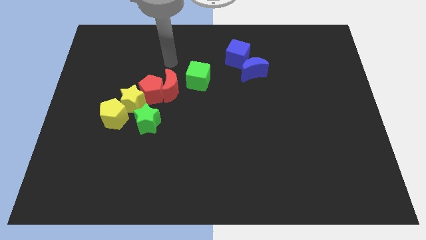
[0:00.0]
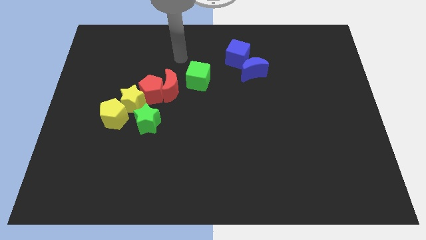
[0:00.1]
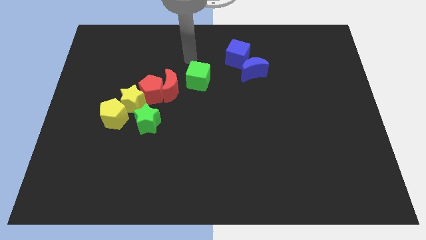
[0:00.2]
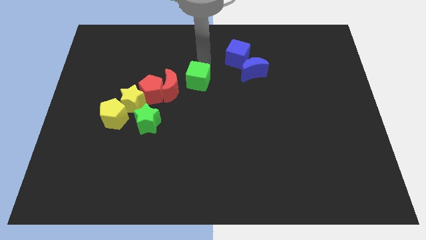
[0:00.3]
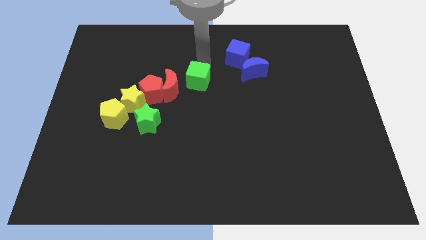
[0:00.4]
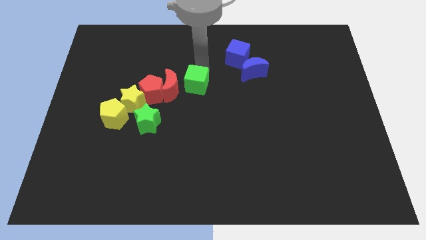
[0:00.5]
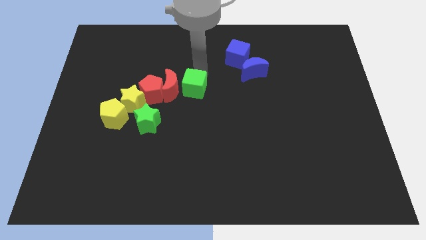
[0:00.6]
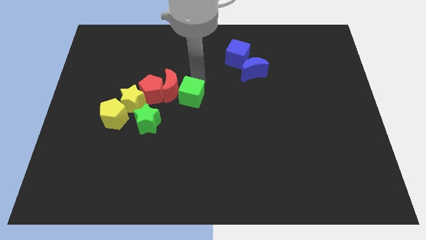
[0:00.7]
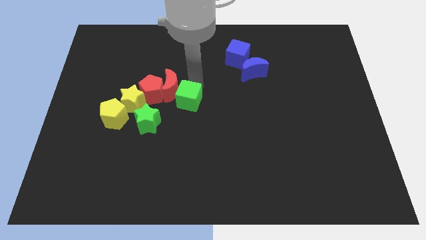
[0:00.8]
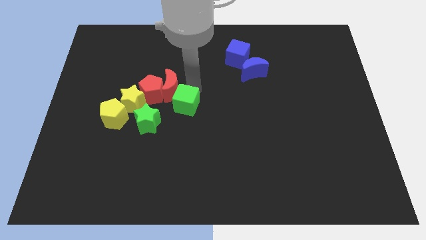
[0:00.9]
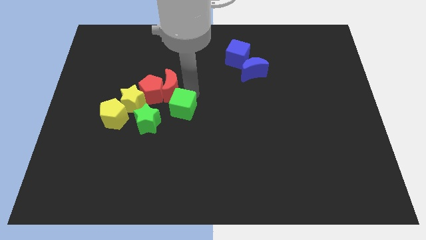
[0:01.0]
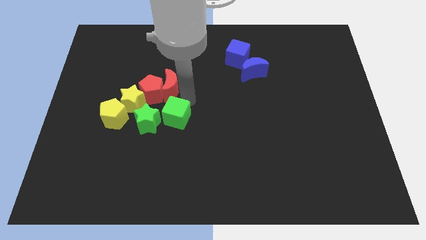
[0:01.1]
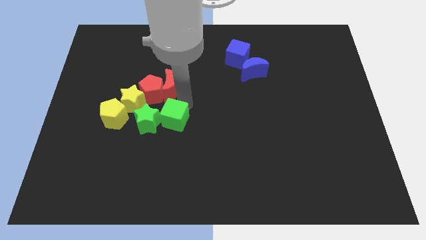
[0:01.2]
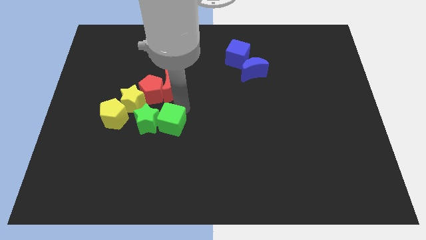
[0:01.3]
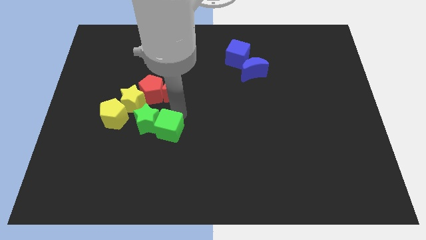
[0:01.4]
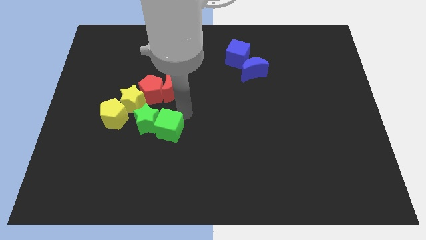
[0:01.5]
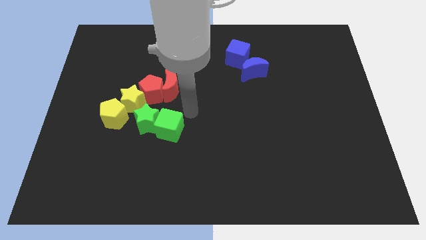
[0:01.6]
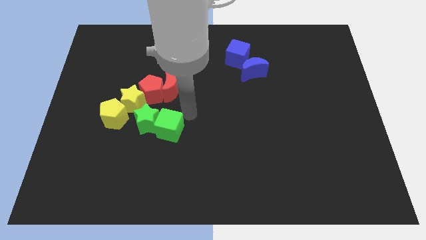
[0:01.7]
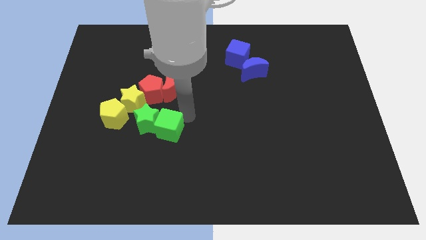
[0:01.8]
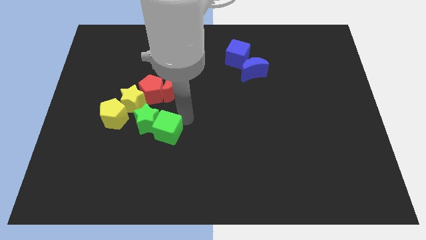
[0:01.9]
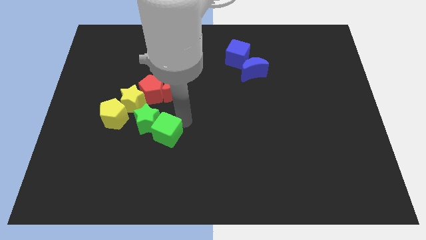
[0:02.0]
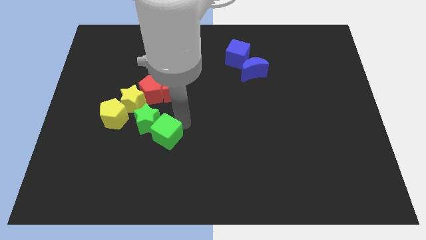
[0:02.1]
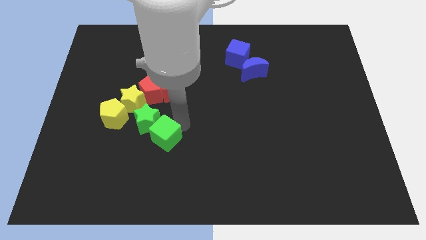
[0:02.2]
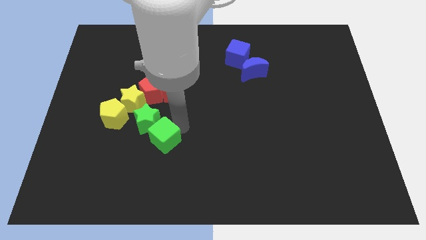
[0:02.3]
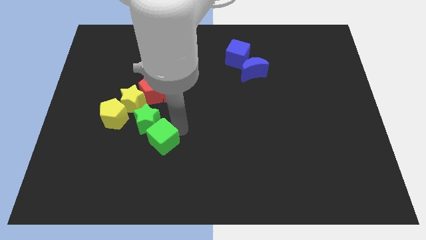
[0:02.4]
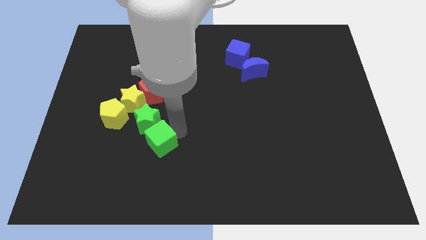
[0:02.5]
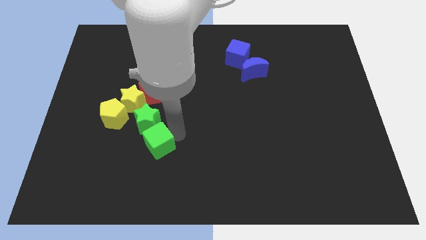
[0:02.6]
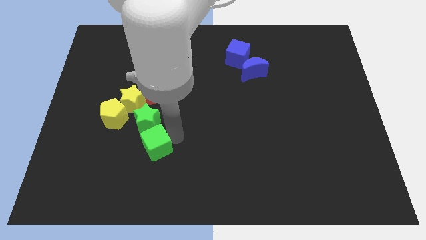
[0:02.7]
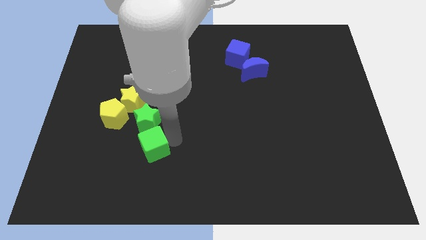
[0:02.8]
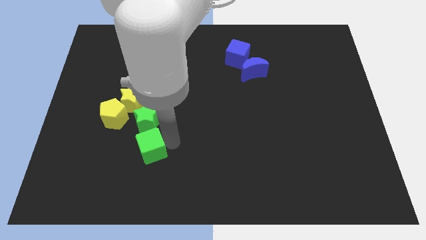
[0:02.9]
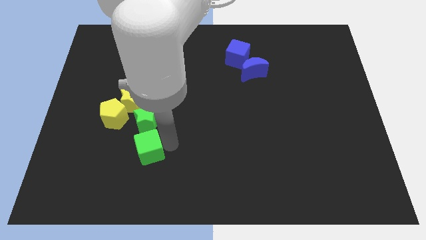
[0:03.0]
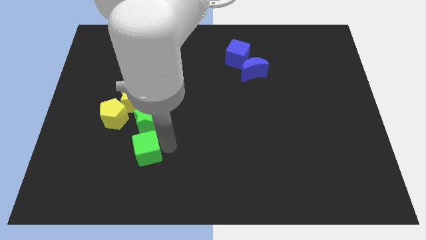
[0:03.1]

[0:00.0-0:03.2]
move the green cube down and left

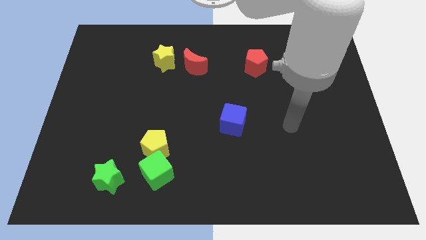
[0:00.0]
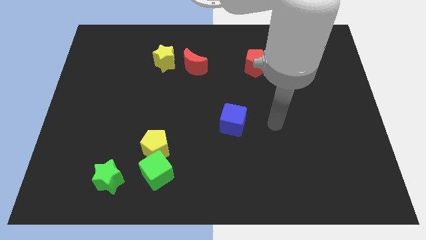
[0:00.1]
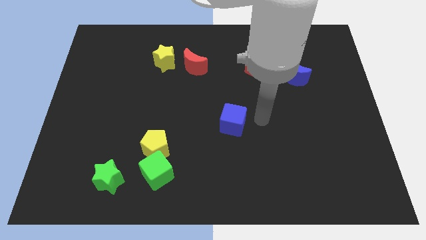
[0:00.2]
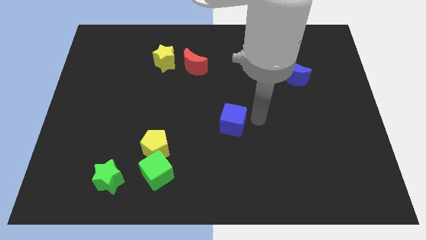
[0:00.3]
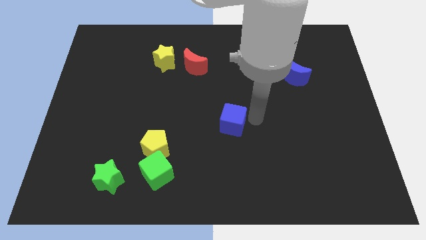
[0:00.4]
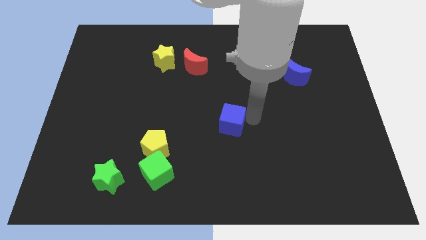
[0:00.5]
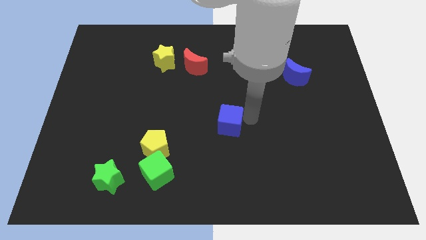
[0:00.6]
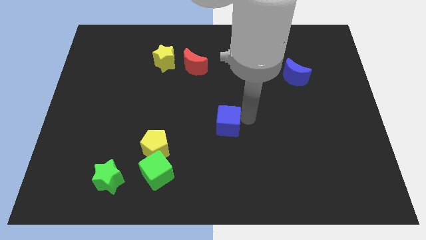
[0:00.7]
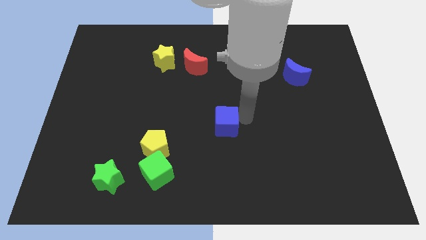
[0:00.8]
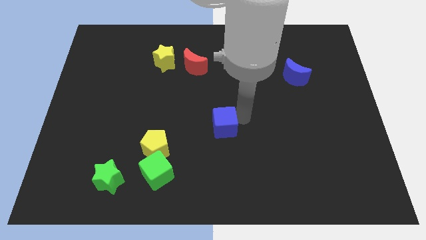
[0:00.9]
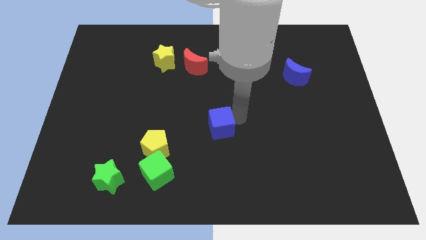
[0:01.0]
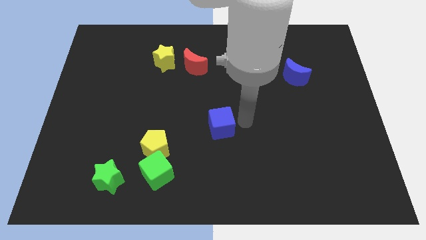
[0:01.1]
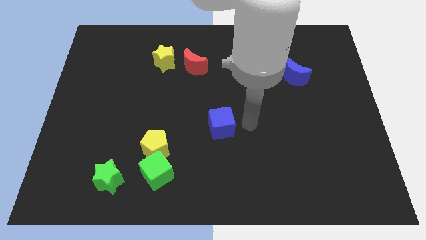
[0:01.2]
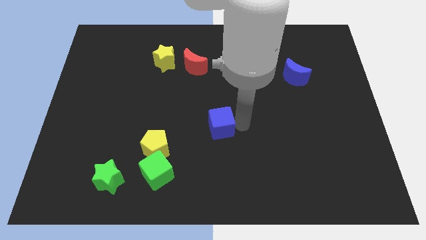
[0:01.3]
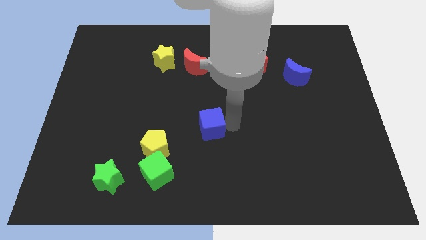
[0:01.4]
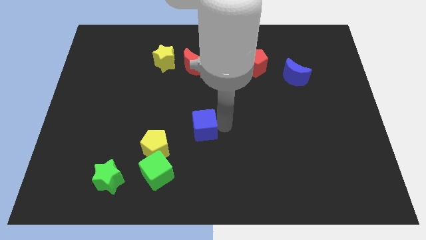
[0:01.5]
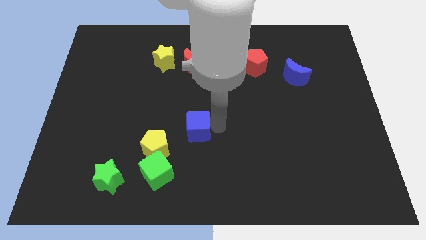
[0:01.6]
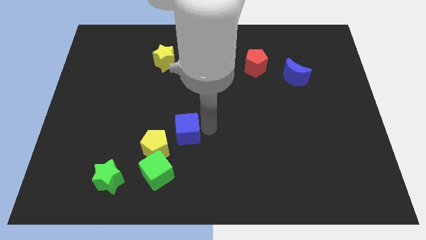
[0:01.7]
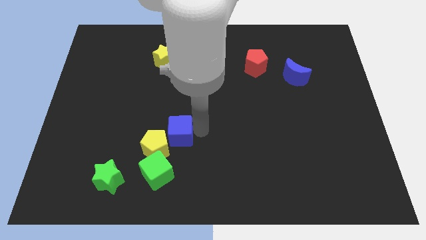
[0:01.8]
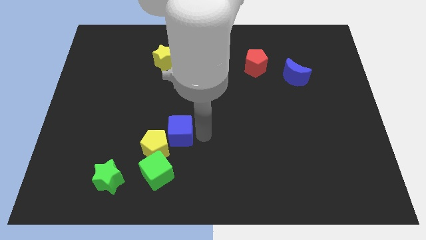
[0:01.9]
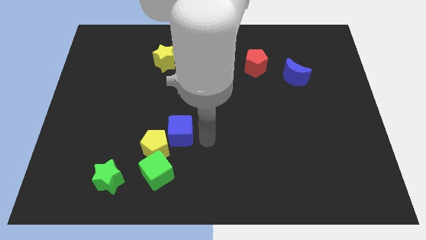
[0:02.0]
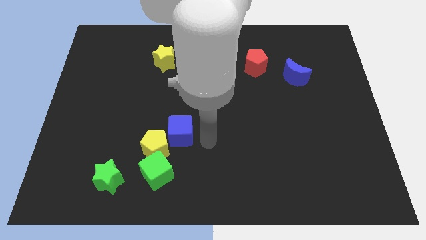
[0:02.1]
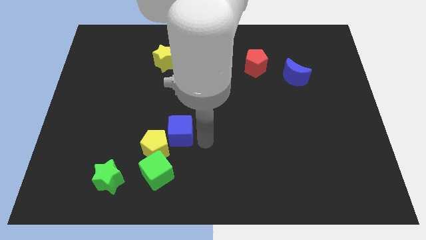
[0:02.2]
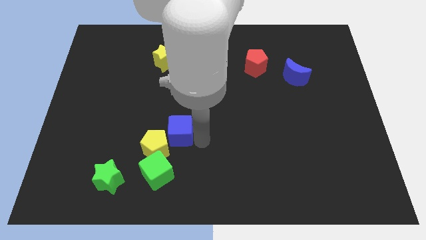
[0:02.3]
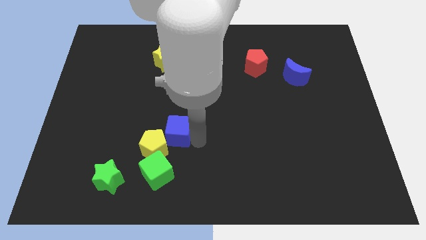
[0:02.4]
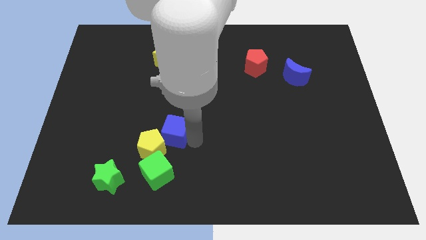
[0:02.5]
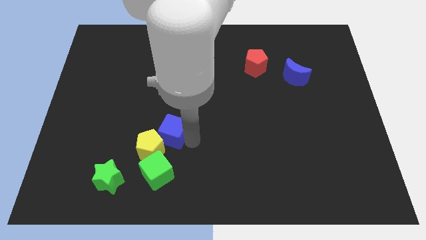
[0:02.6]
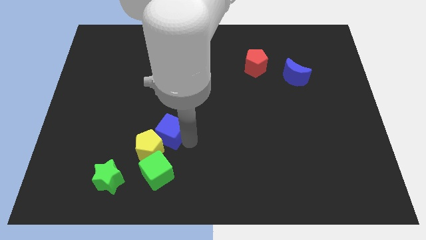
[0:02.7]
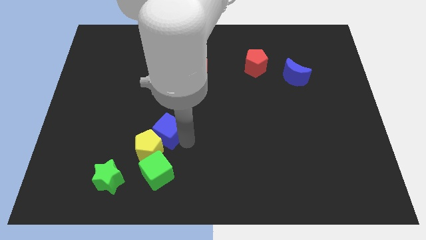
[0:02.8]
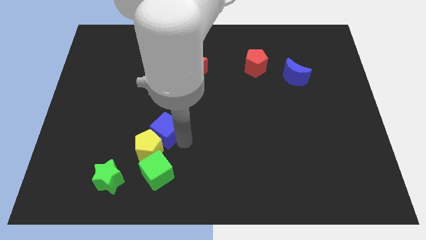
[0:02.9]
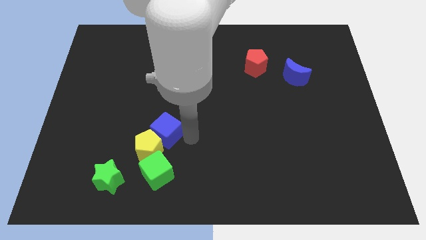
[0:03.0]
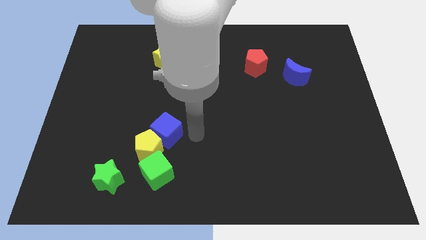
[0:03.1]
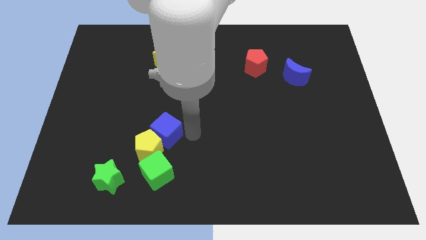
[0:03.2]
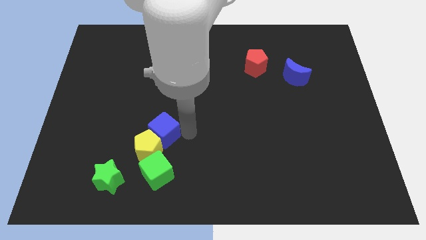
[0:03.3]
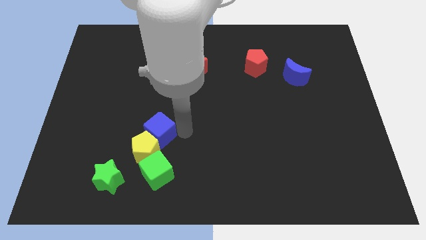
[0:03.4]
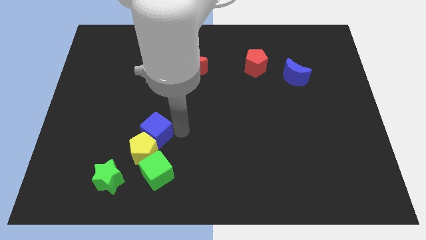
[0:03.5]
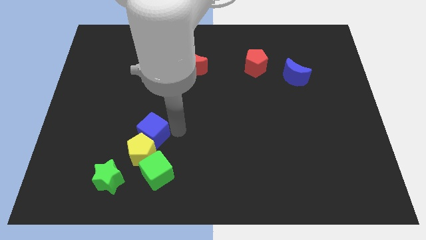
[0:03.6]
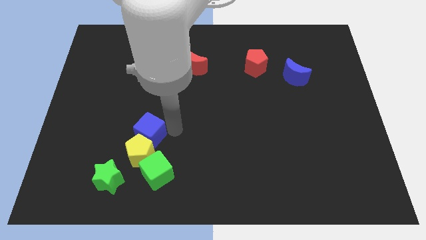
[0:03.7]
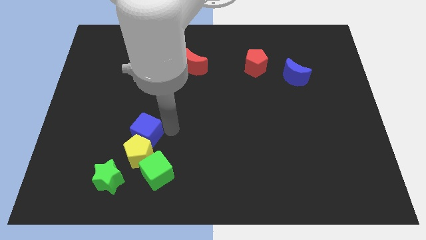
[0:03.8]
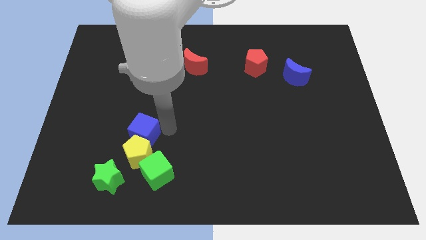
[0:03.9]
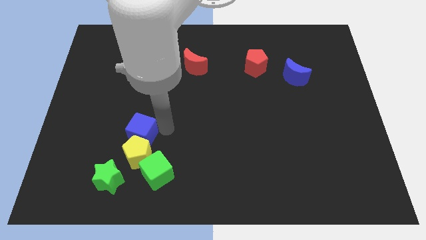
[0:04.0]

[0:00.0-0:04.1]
move the blue cube to the left

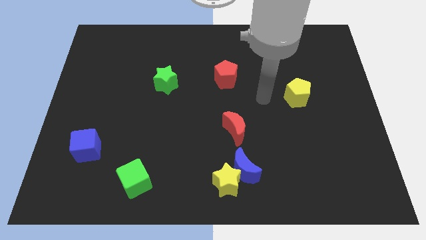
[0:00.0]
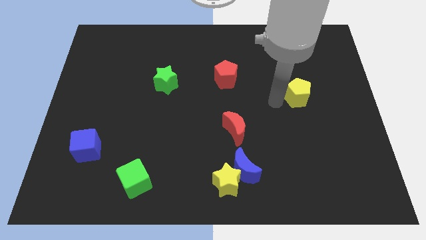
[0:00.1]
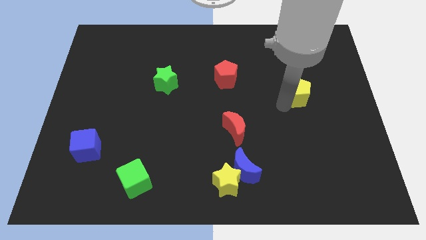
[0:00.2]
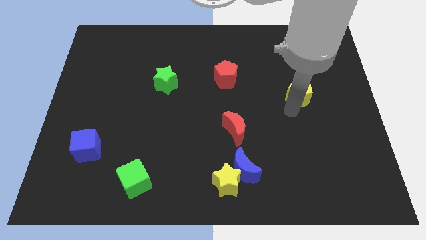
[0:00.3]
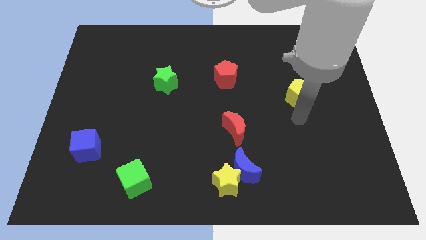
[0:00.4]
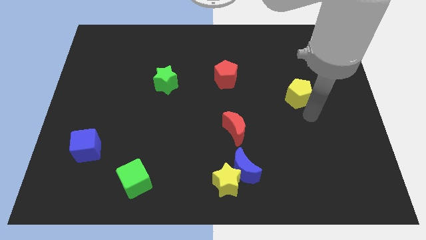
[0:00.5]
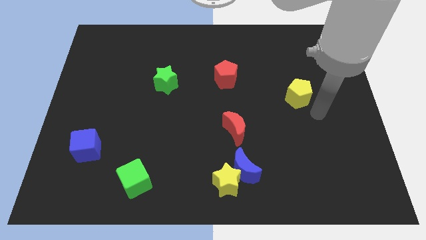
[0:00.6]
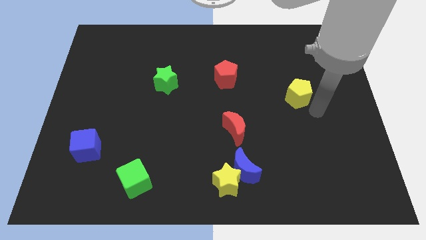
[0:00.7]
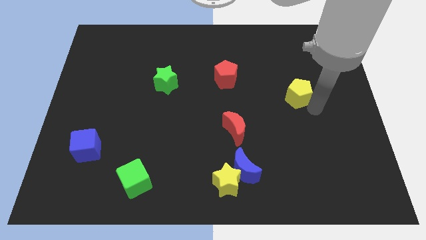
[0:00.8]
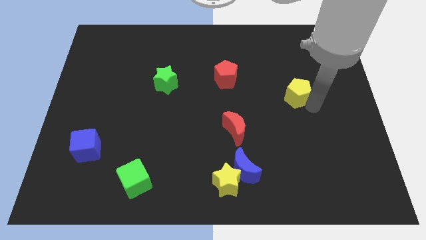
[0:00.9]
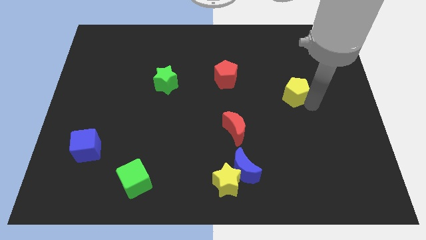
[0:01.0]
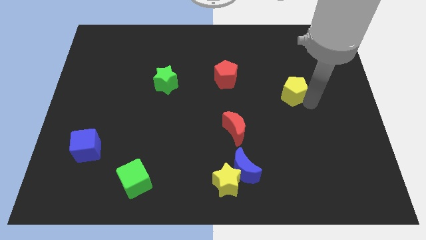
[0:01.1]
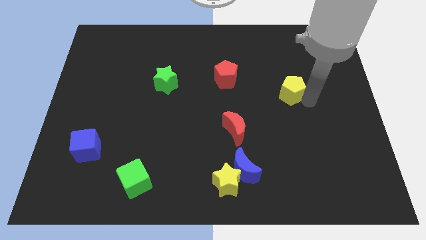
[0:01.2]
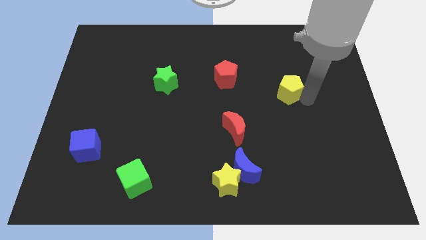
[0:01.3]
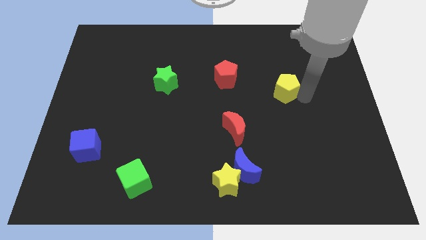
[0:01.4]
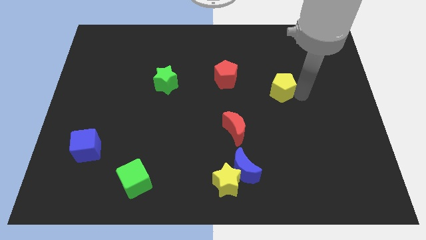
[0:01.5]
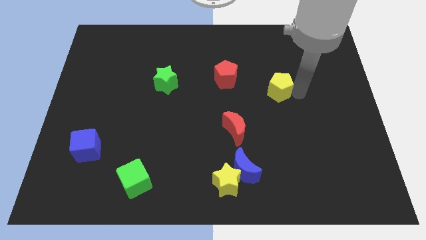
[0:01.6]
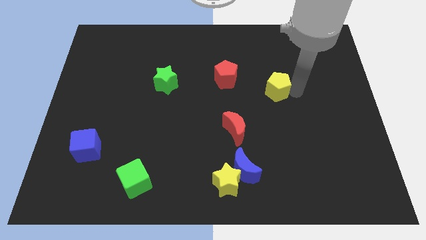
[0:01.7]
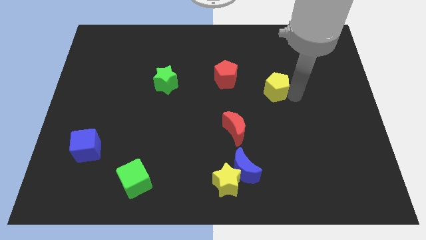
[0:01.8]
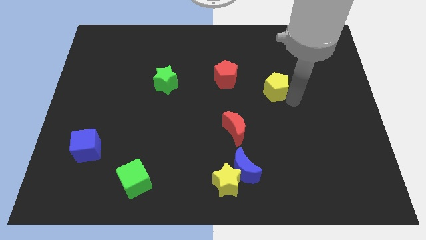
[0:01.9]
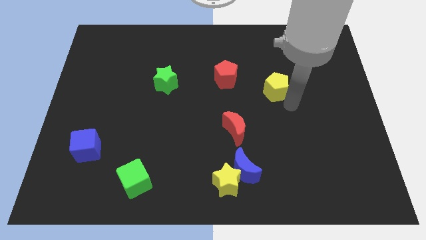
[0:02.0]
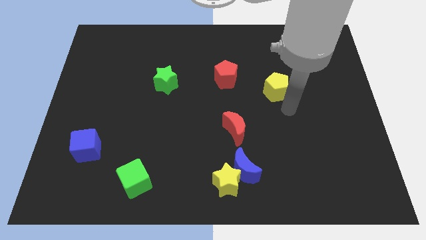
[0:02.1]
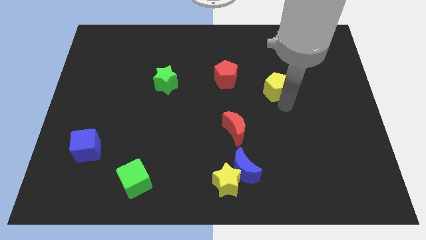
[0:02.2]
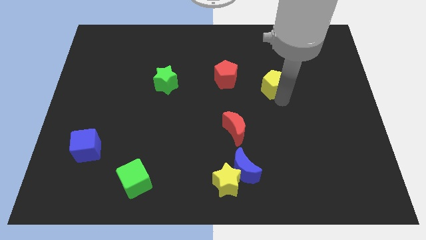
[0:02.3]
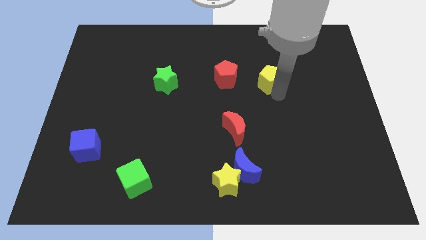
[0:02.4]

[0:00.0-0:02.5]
slightly move the yellow pentagon up and left
